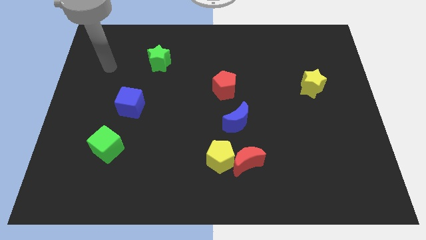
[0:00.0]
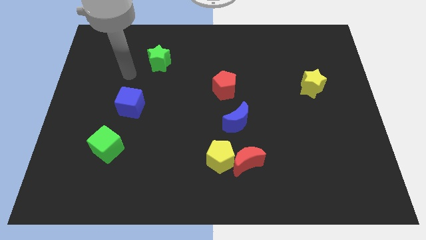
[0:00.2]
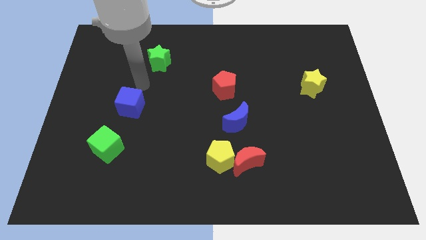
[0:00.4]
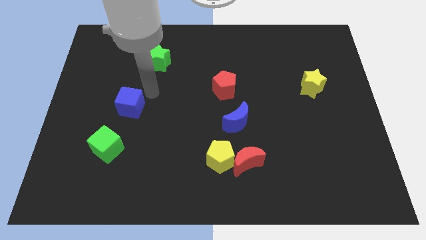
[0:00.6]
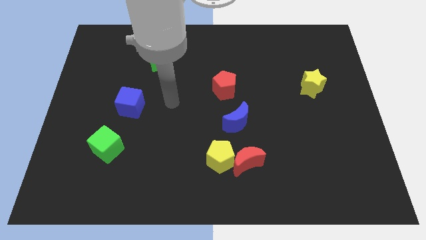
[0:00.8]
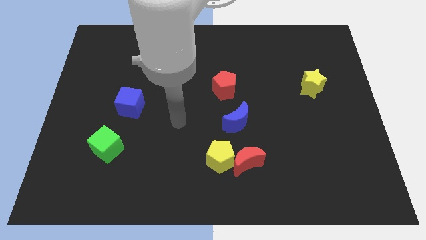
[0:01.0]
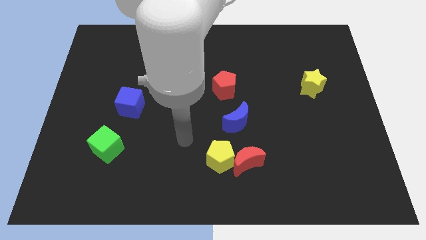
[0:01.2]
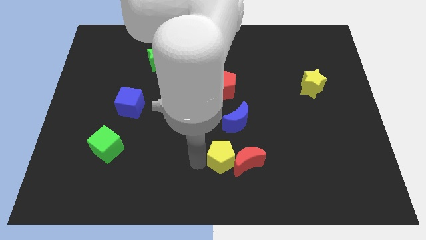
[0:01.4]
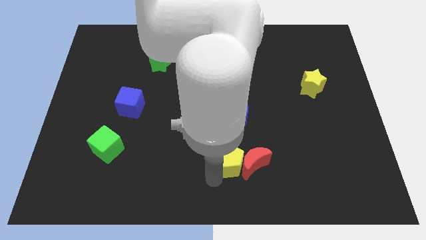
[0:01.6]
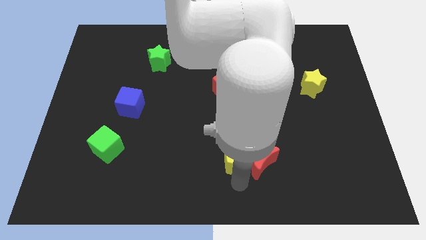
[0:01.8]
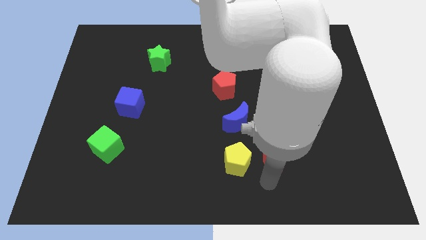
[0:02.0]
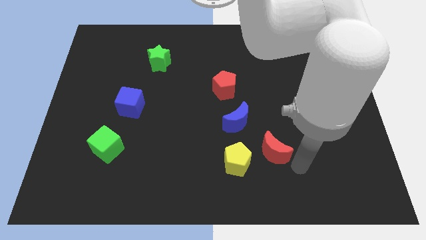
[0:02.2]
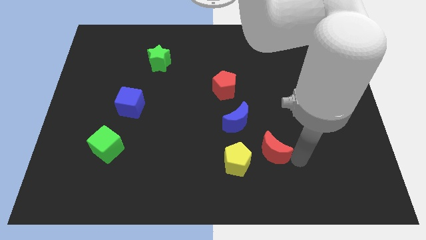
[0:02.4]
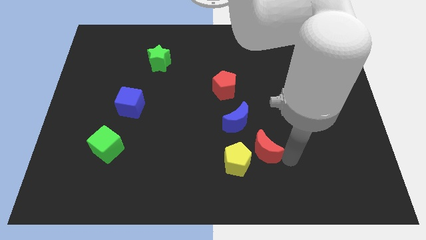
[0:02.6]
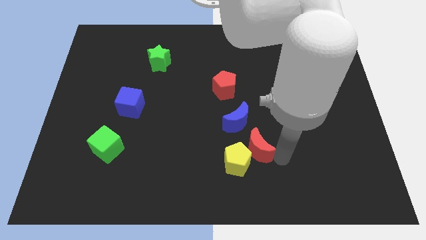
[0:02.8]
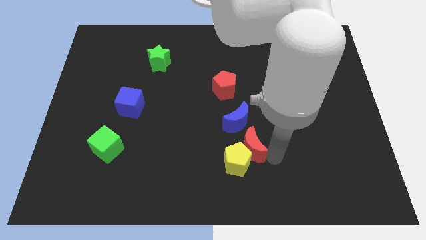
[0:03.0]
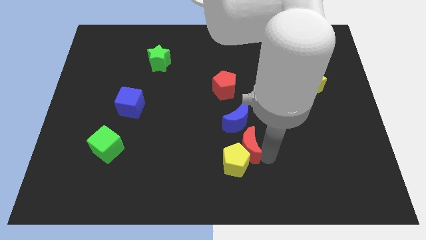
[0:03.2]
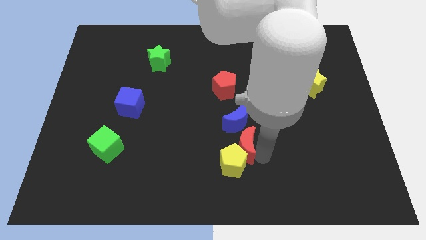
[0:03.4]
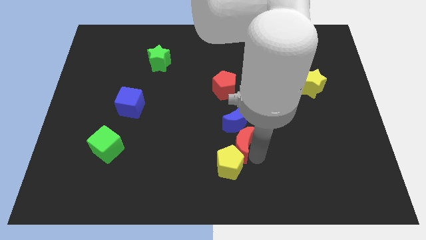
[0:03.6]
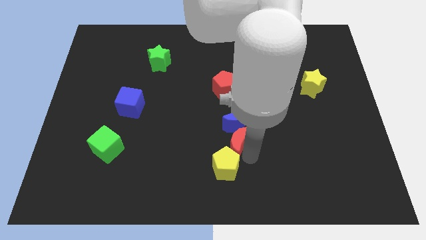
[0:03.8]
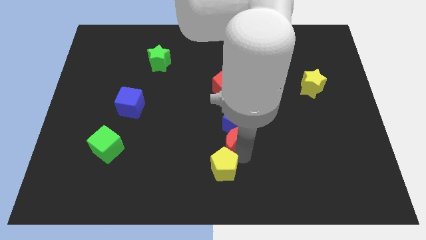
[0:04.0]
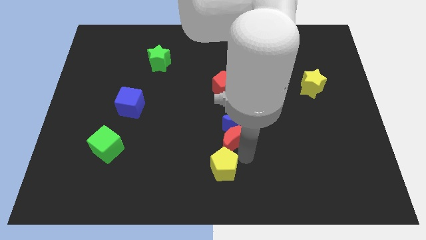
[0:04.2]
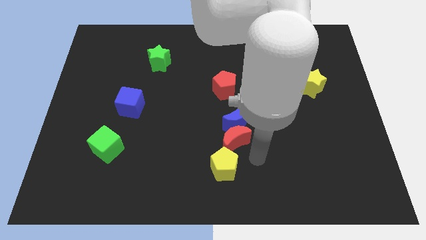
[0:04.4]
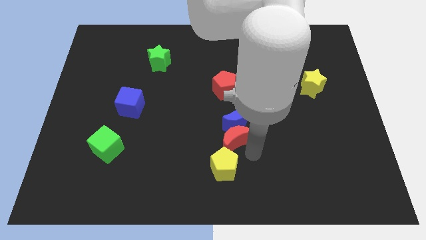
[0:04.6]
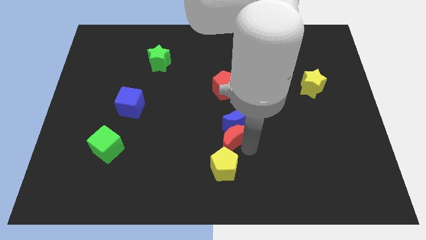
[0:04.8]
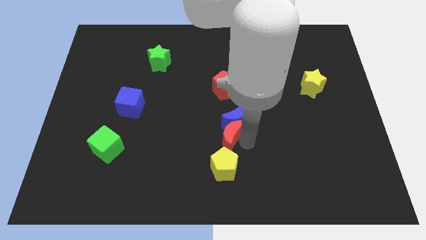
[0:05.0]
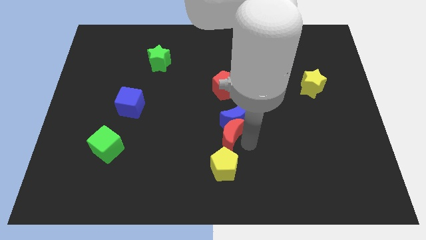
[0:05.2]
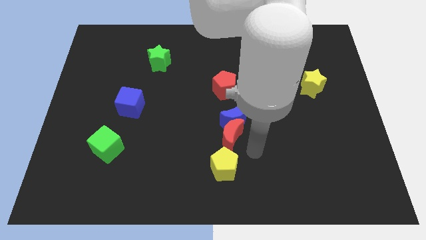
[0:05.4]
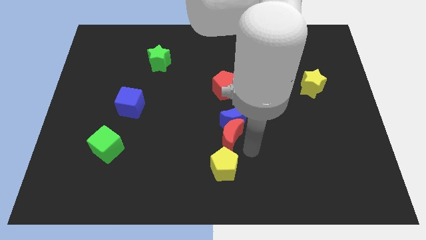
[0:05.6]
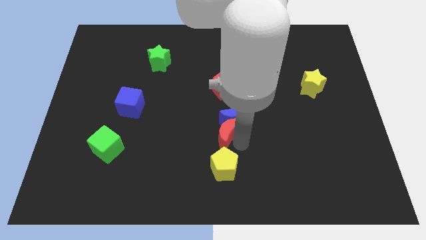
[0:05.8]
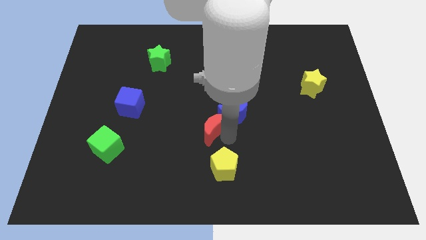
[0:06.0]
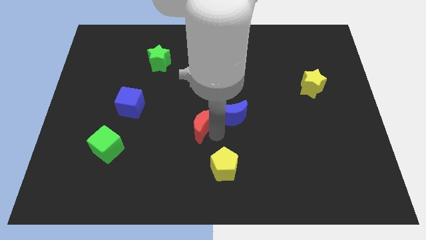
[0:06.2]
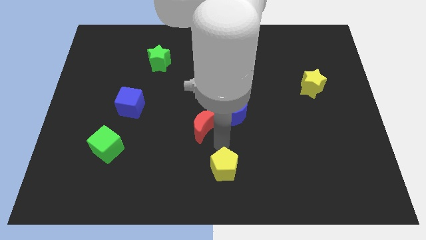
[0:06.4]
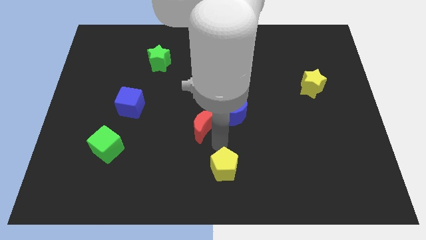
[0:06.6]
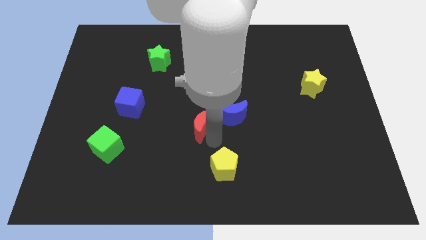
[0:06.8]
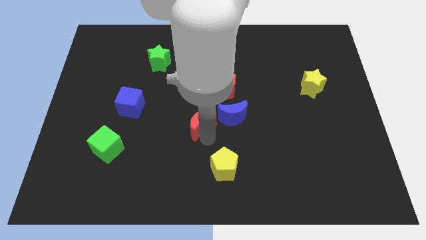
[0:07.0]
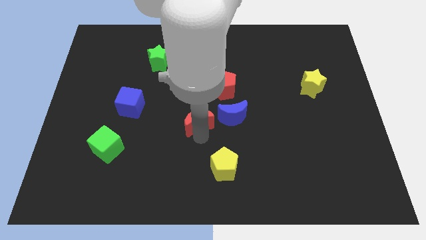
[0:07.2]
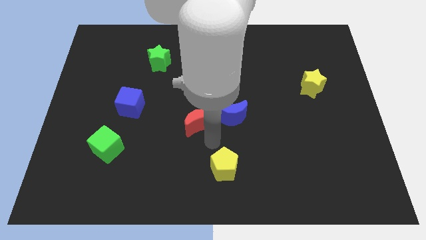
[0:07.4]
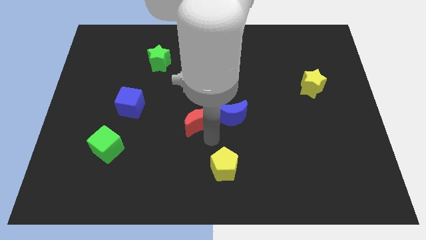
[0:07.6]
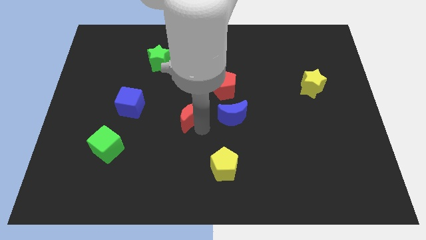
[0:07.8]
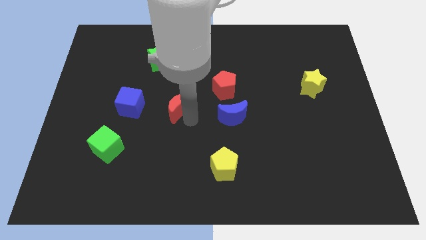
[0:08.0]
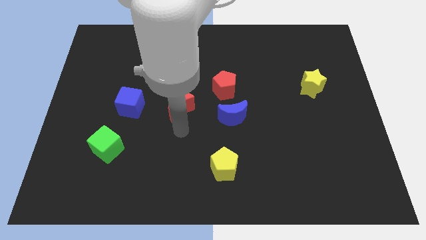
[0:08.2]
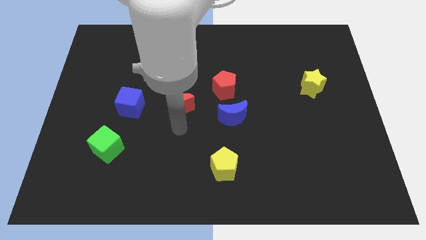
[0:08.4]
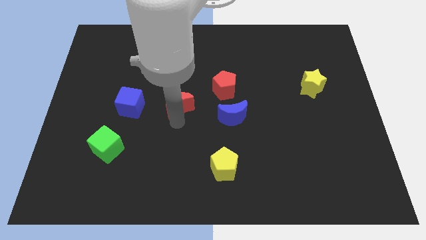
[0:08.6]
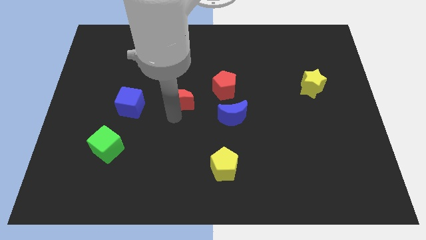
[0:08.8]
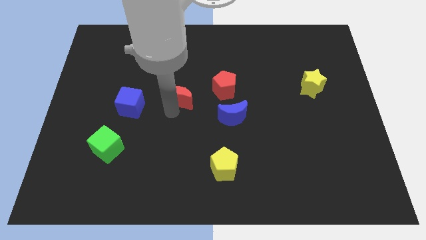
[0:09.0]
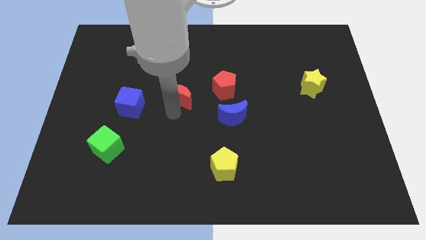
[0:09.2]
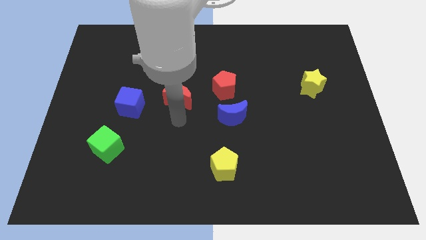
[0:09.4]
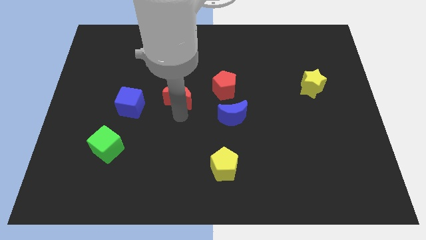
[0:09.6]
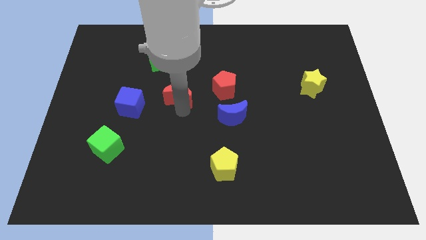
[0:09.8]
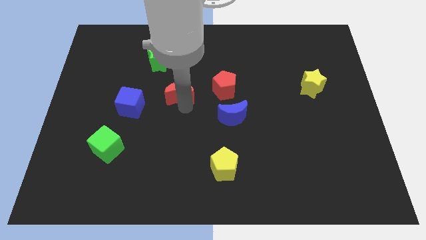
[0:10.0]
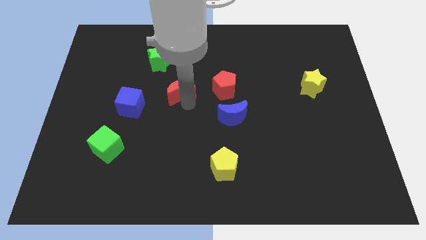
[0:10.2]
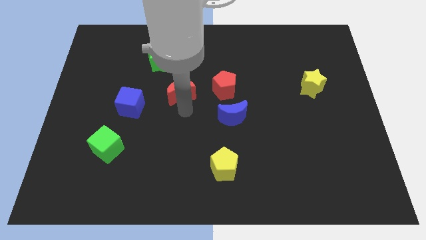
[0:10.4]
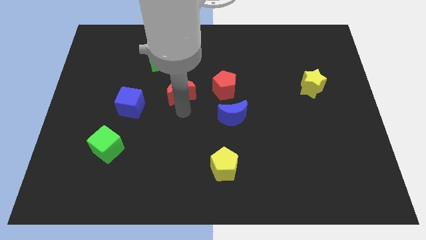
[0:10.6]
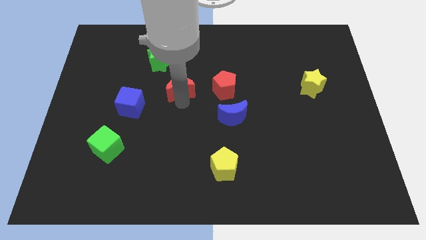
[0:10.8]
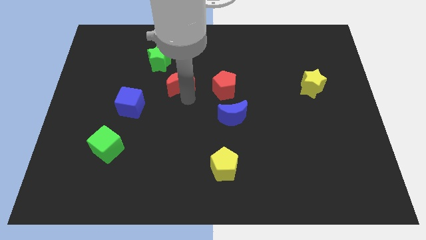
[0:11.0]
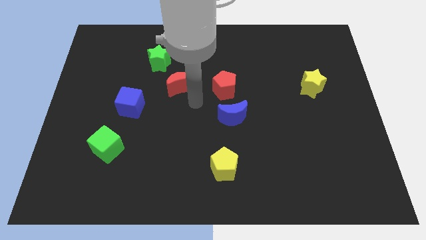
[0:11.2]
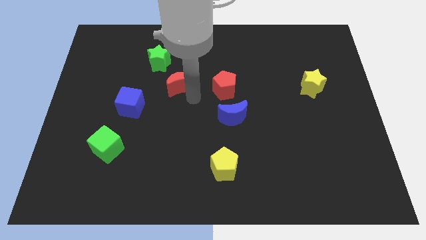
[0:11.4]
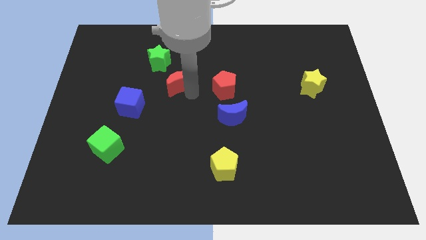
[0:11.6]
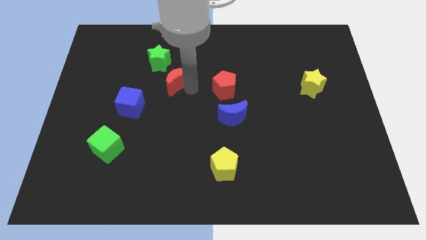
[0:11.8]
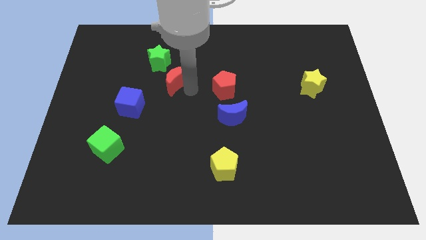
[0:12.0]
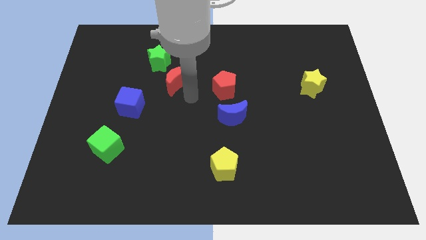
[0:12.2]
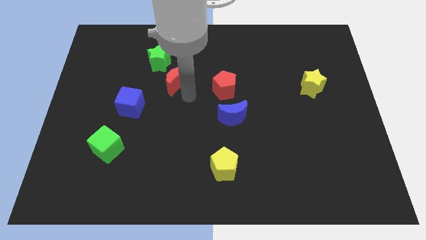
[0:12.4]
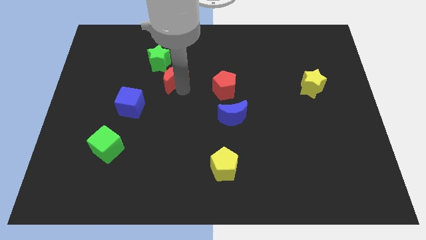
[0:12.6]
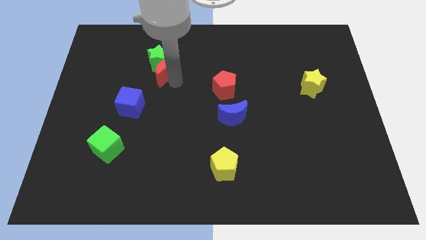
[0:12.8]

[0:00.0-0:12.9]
slide the red moon next to the green star
